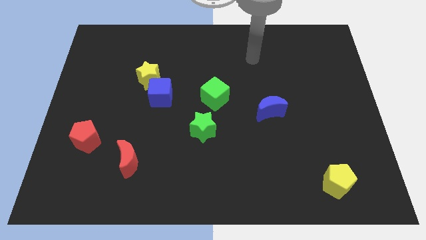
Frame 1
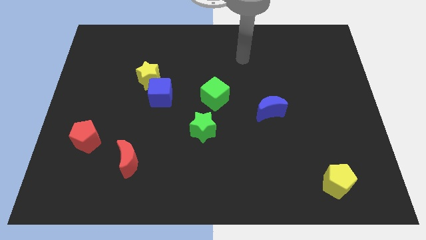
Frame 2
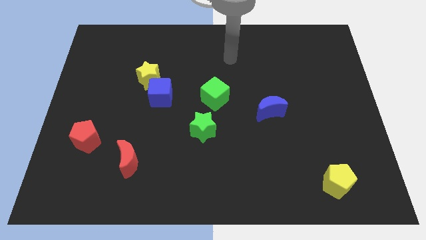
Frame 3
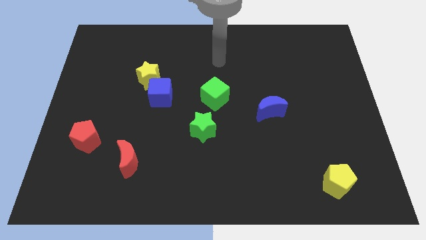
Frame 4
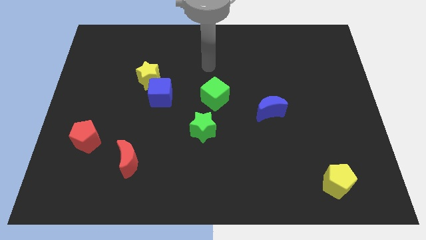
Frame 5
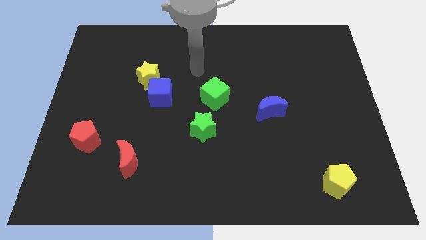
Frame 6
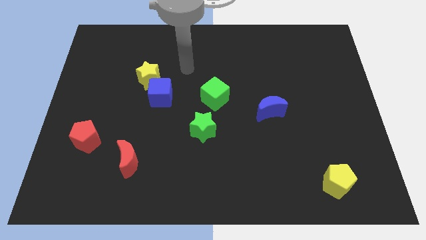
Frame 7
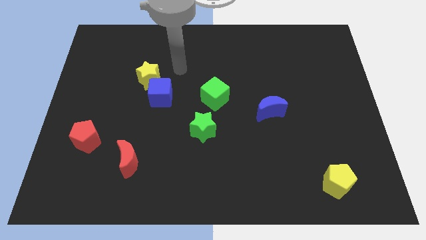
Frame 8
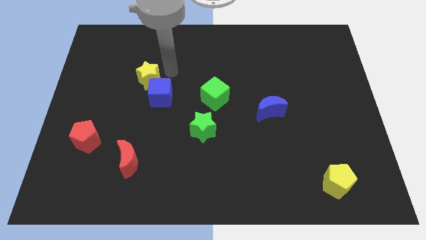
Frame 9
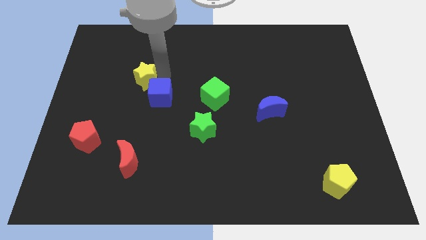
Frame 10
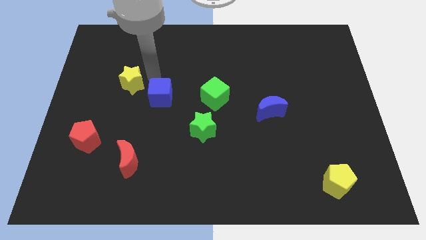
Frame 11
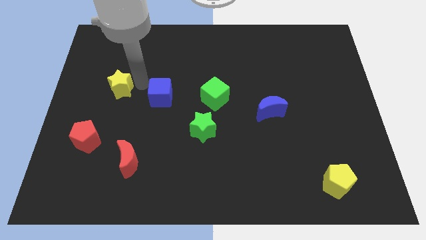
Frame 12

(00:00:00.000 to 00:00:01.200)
pull the blue cube apart from the yellow star

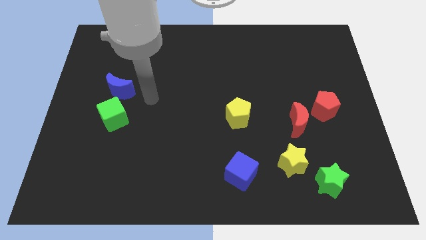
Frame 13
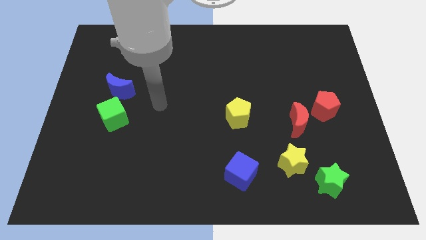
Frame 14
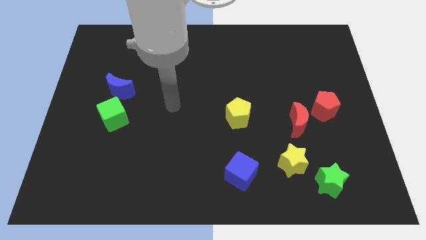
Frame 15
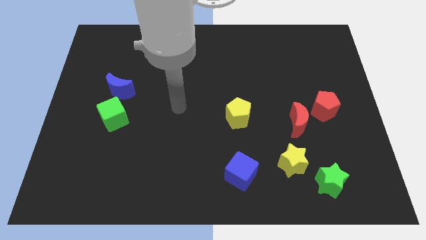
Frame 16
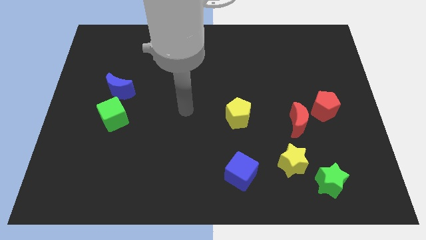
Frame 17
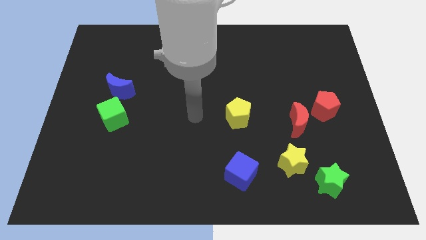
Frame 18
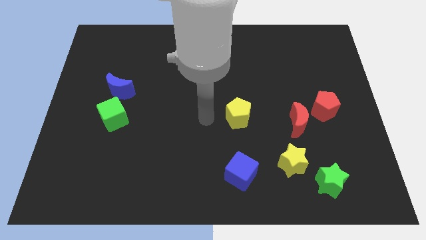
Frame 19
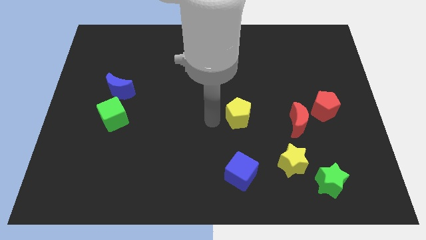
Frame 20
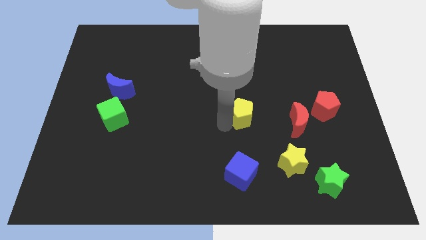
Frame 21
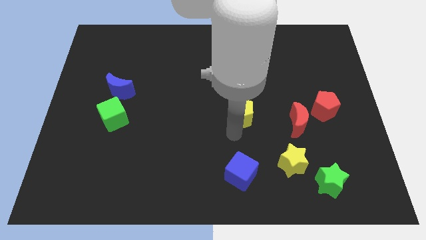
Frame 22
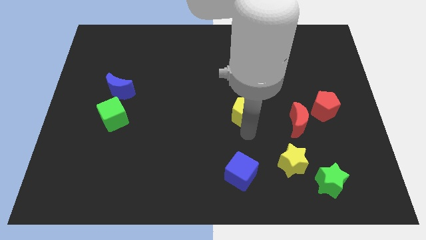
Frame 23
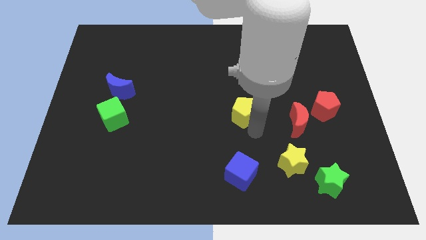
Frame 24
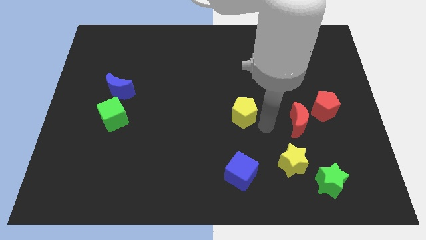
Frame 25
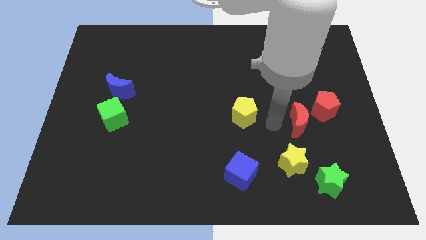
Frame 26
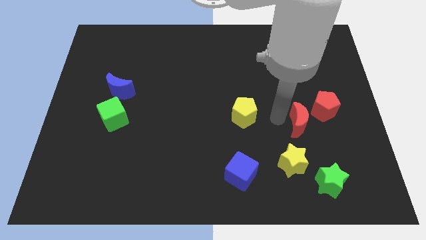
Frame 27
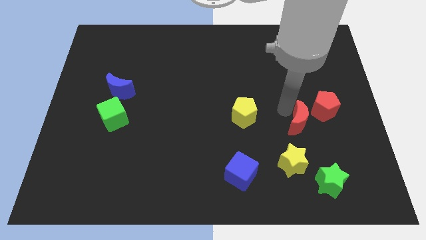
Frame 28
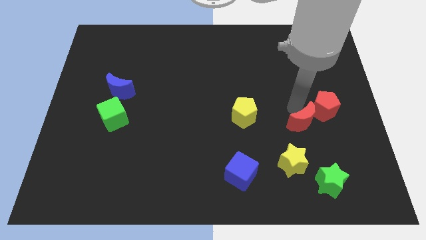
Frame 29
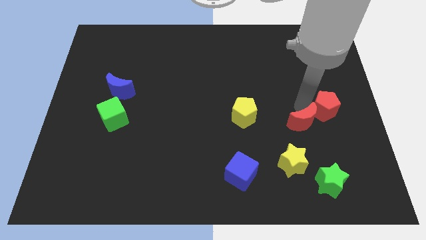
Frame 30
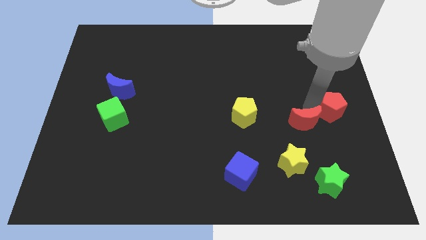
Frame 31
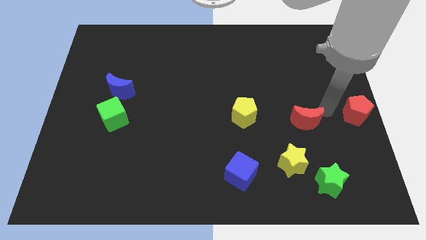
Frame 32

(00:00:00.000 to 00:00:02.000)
separate the red moon from the red pentagon

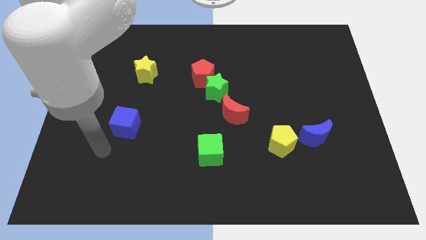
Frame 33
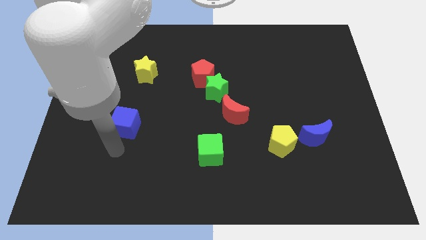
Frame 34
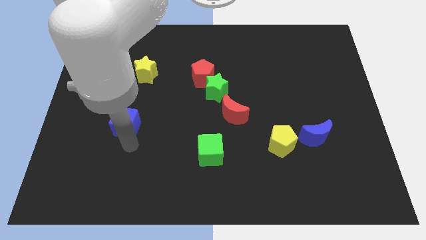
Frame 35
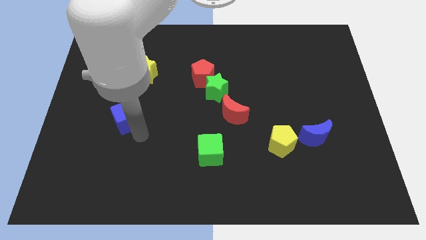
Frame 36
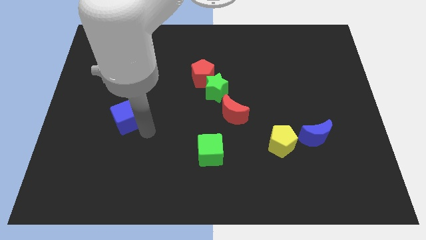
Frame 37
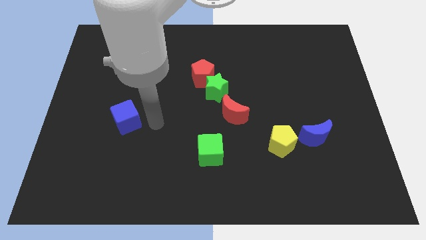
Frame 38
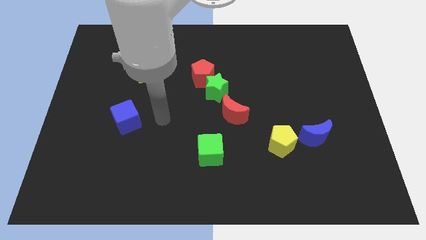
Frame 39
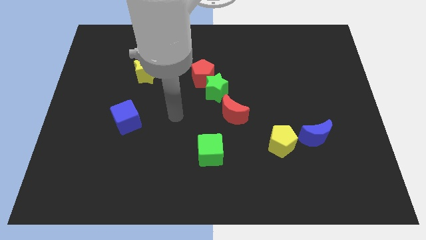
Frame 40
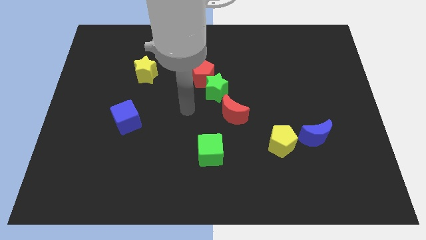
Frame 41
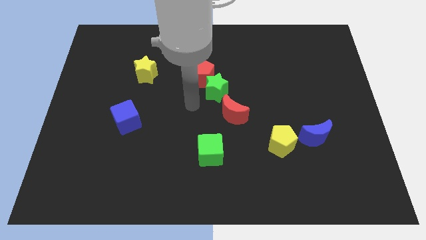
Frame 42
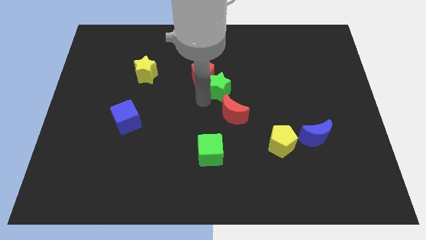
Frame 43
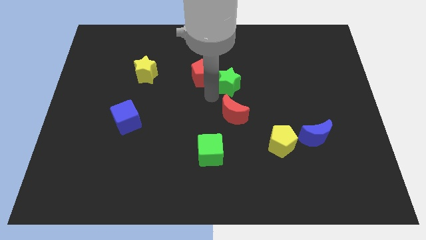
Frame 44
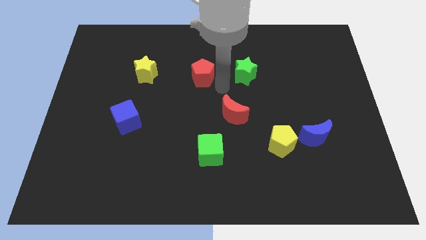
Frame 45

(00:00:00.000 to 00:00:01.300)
separate the red pentagon from the green star

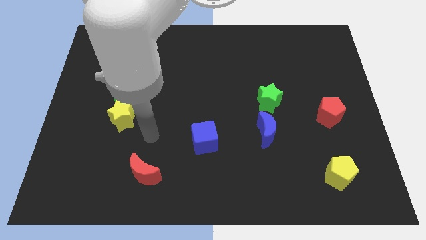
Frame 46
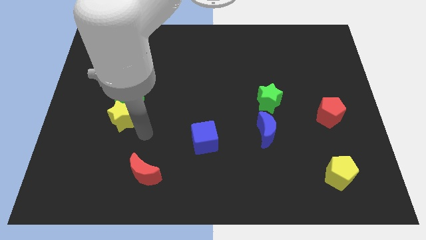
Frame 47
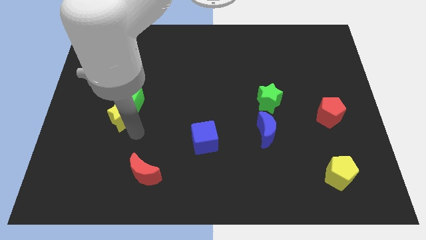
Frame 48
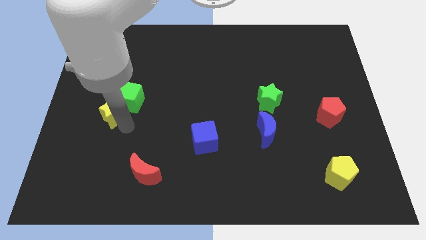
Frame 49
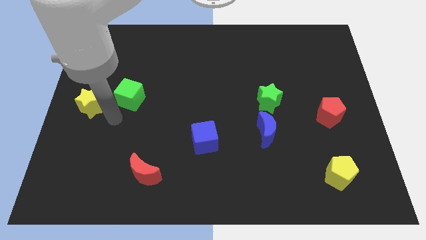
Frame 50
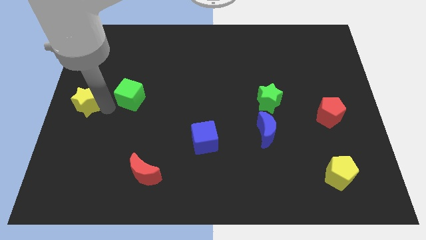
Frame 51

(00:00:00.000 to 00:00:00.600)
separate the green cube from the yellow star

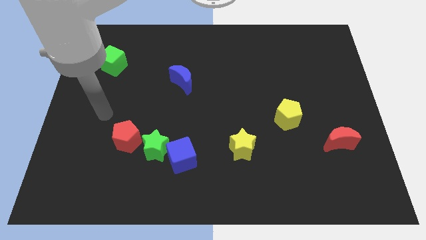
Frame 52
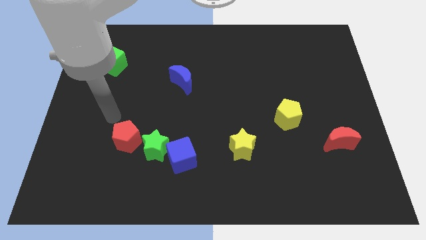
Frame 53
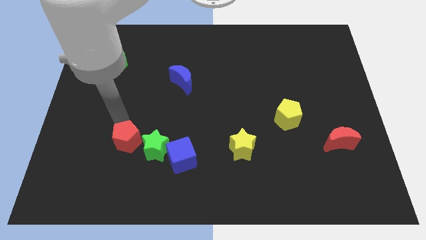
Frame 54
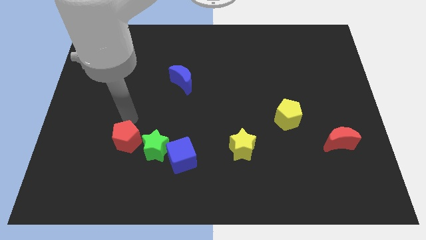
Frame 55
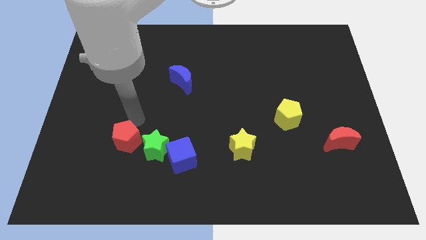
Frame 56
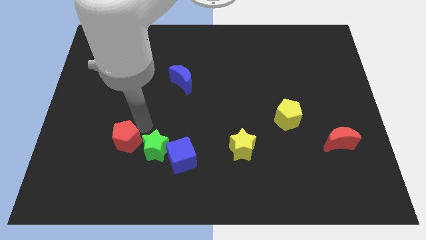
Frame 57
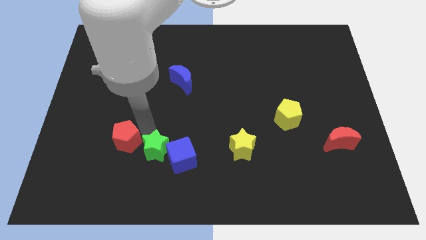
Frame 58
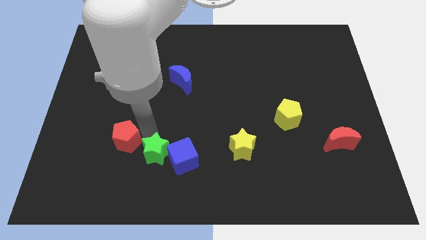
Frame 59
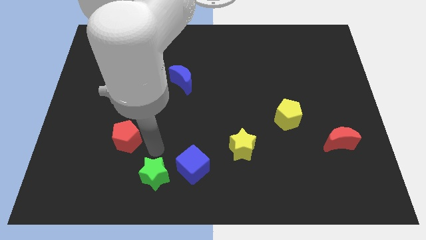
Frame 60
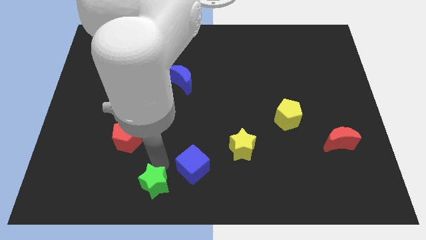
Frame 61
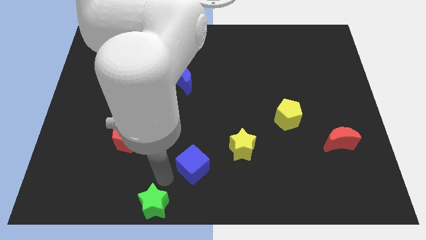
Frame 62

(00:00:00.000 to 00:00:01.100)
separate the blue cube from the green star

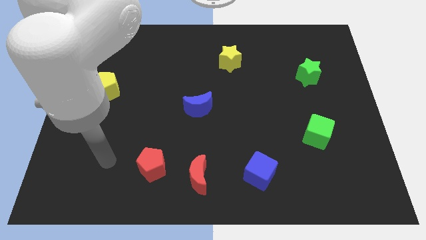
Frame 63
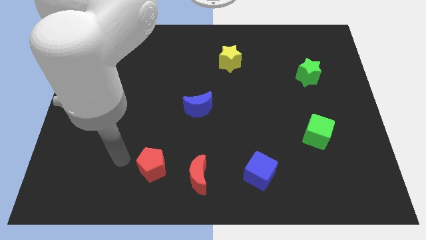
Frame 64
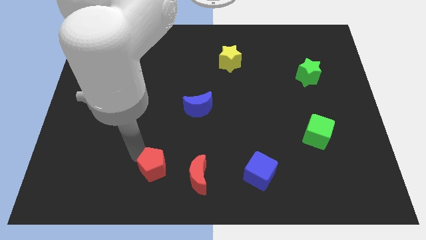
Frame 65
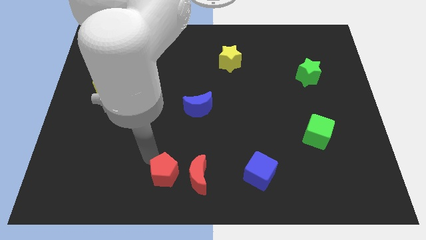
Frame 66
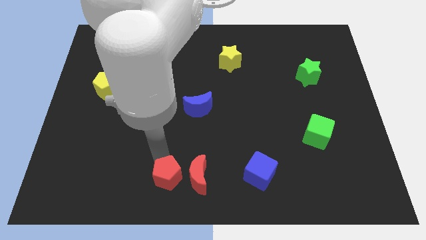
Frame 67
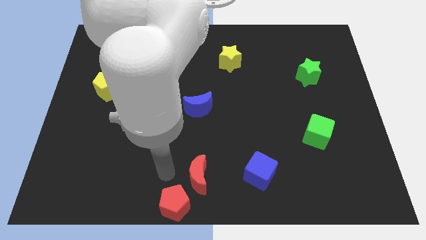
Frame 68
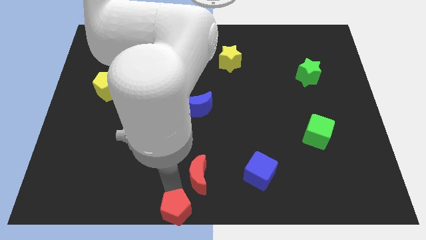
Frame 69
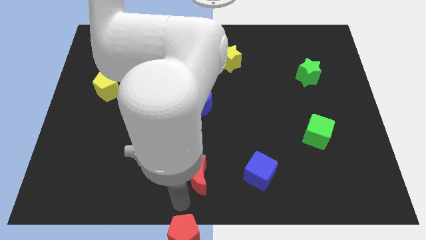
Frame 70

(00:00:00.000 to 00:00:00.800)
move the red moon away from the red pentagon

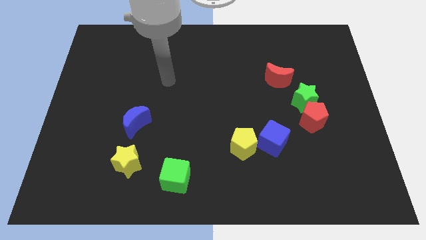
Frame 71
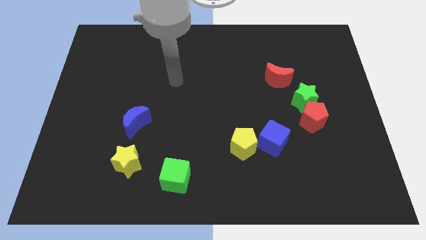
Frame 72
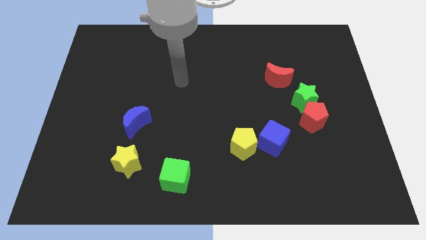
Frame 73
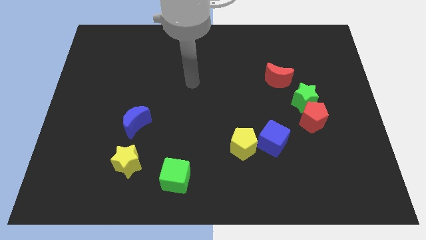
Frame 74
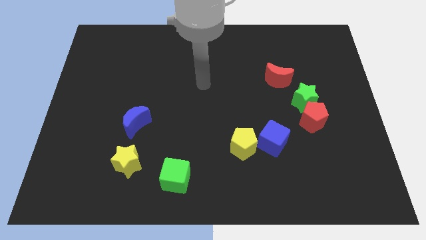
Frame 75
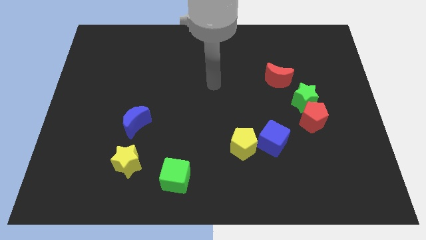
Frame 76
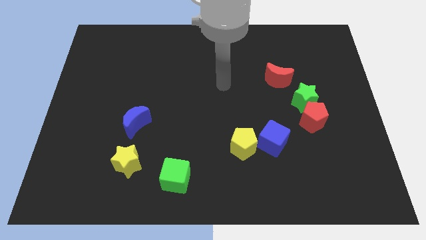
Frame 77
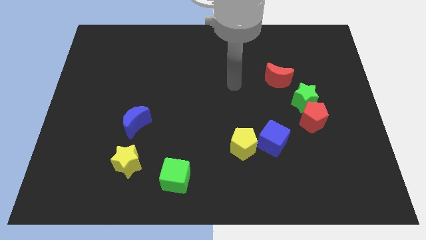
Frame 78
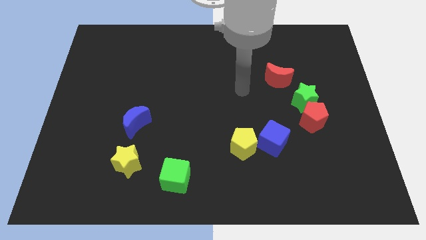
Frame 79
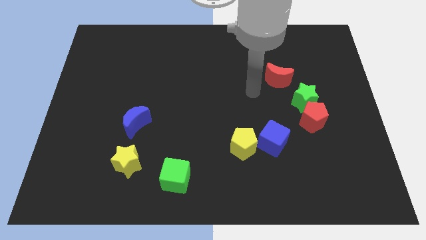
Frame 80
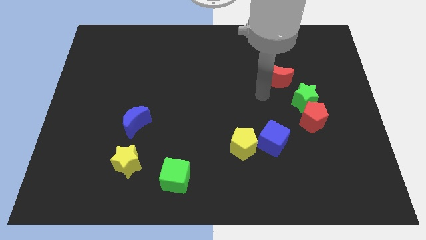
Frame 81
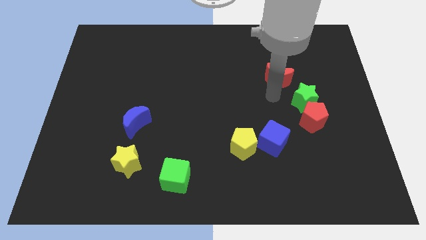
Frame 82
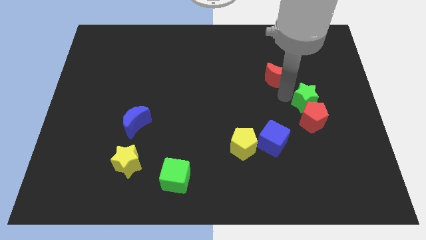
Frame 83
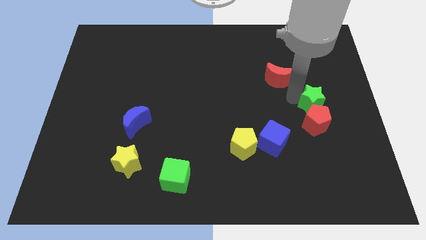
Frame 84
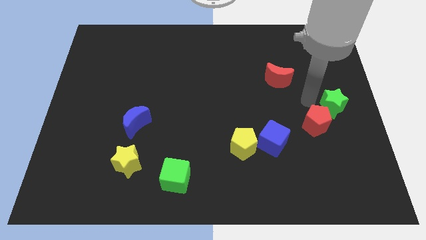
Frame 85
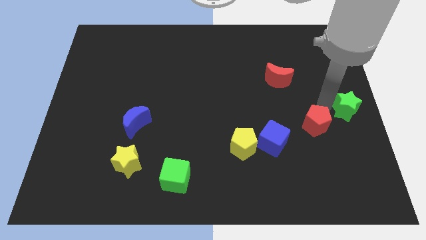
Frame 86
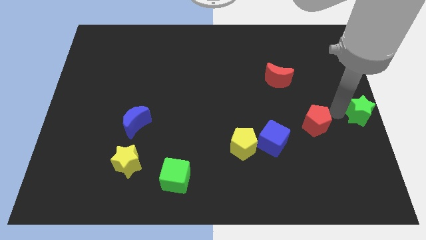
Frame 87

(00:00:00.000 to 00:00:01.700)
move the red pentagon away from the green star

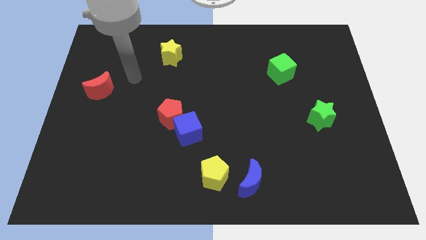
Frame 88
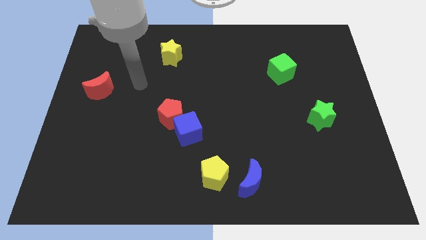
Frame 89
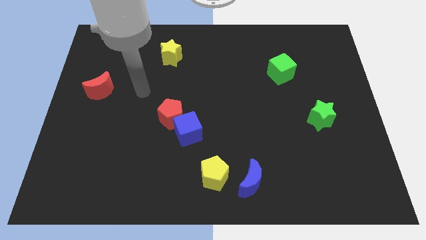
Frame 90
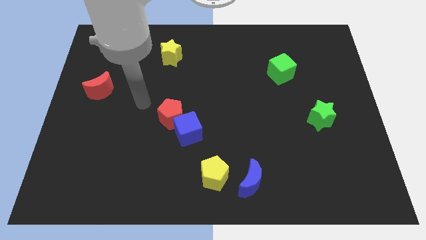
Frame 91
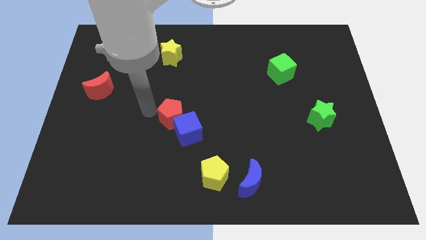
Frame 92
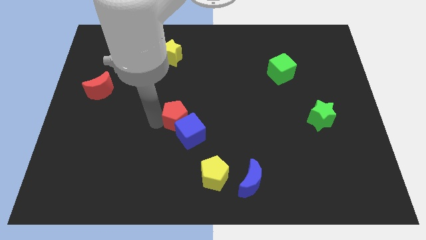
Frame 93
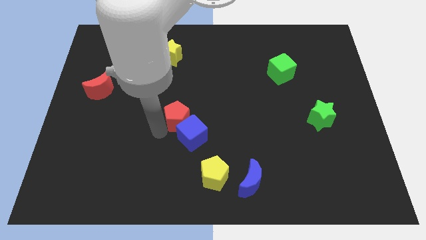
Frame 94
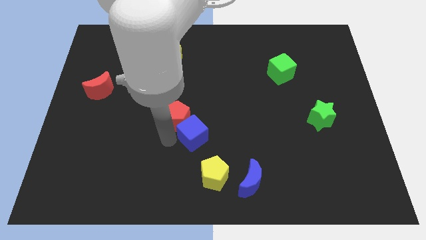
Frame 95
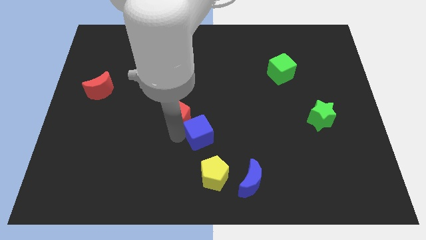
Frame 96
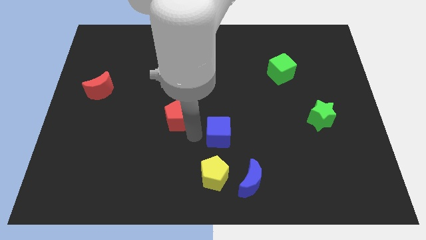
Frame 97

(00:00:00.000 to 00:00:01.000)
move the red pentagon away from the blue cube
